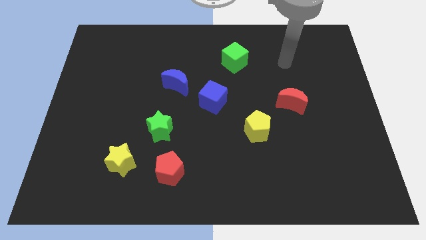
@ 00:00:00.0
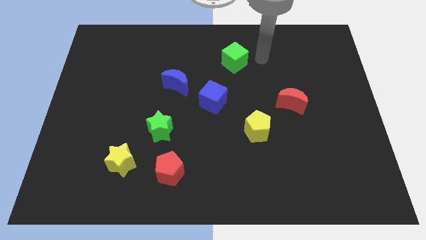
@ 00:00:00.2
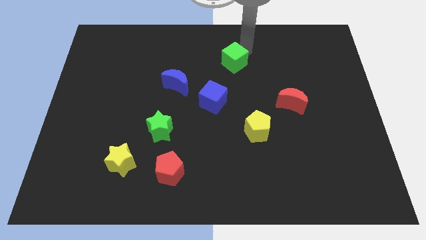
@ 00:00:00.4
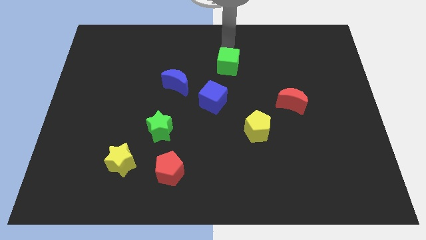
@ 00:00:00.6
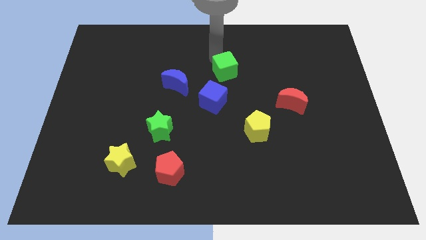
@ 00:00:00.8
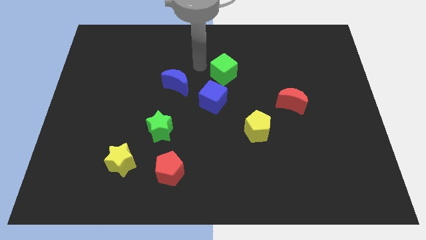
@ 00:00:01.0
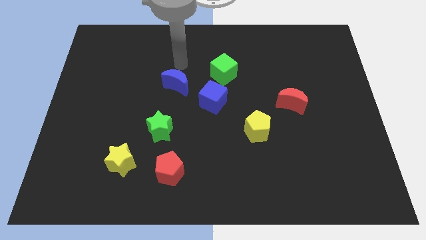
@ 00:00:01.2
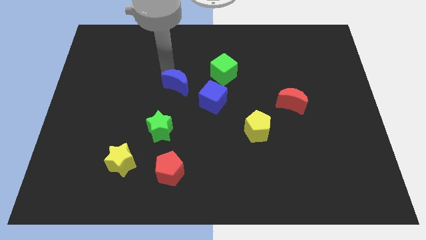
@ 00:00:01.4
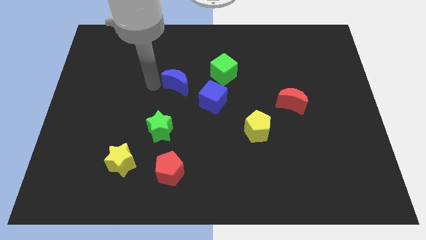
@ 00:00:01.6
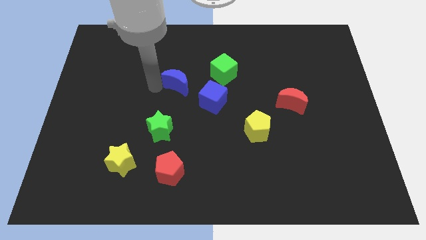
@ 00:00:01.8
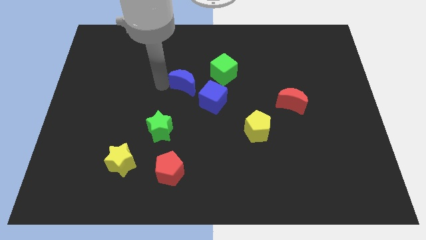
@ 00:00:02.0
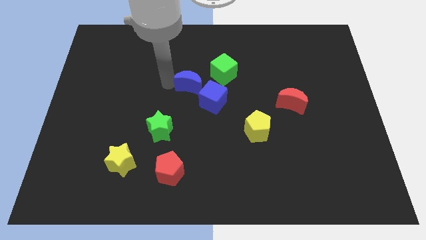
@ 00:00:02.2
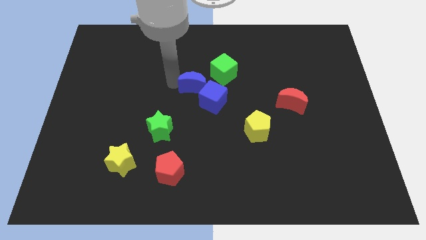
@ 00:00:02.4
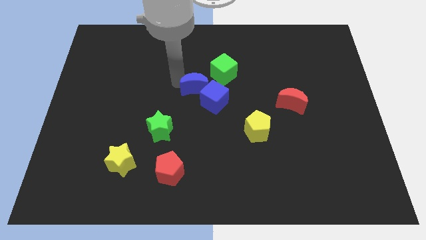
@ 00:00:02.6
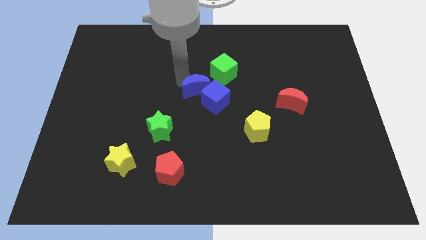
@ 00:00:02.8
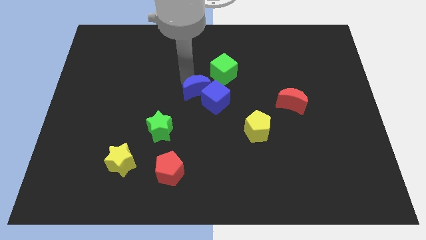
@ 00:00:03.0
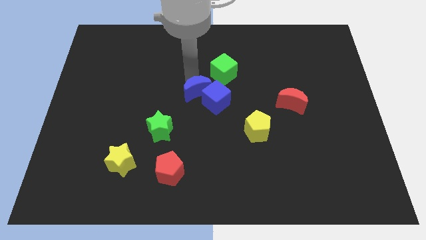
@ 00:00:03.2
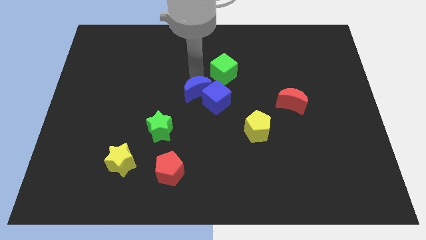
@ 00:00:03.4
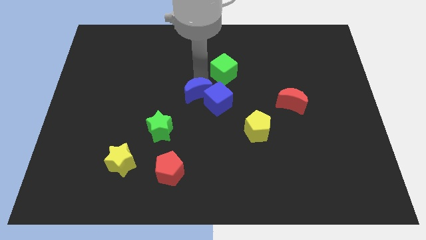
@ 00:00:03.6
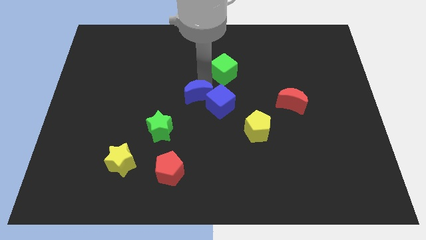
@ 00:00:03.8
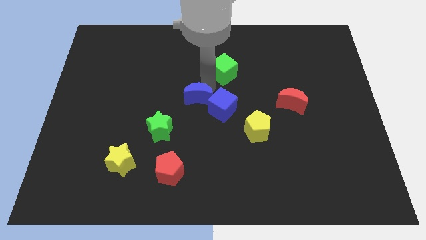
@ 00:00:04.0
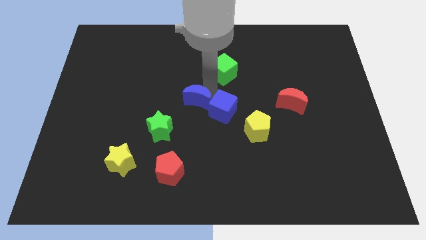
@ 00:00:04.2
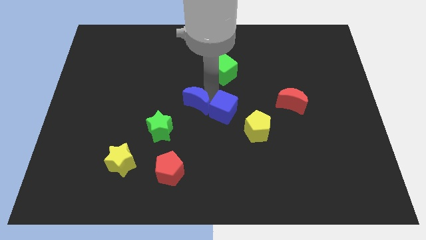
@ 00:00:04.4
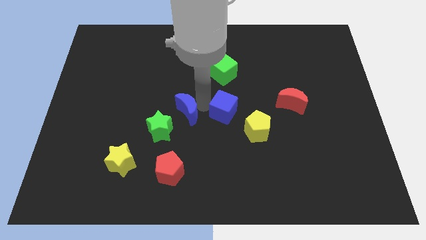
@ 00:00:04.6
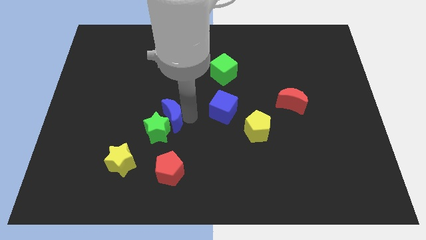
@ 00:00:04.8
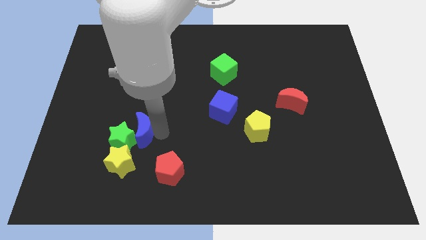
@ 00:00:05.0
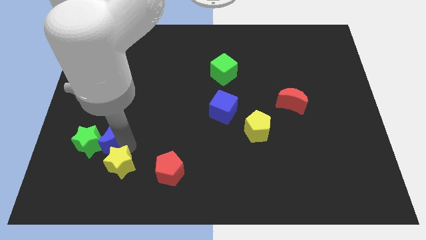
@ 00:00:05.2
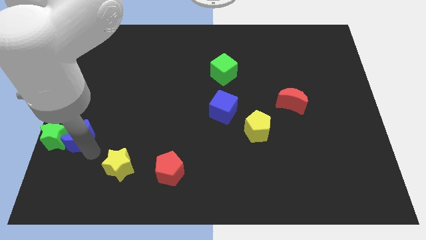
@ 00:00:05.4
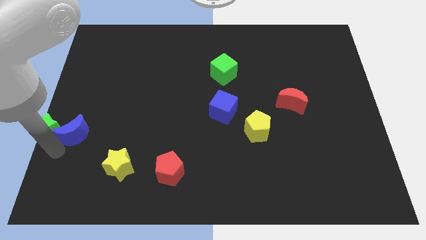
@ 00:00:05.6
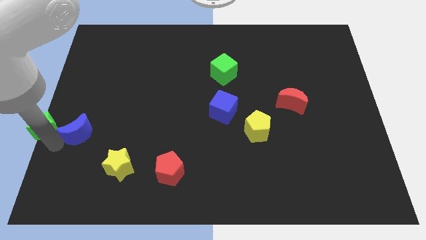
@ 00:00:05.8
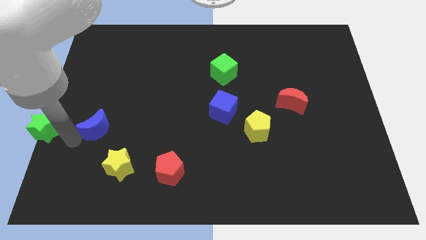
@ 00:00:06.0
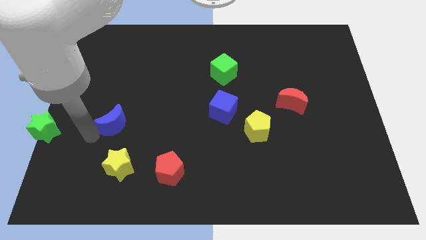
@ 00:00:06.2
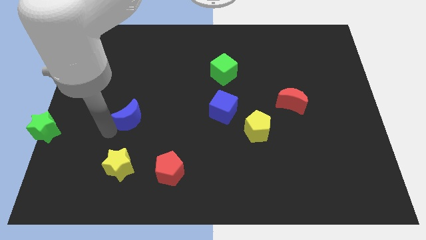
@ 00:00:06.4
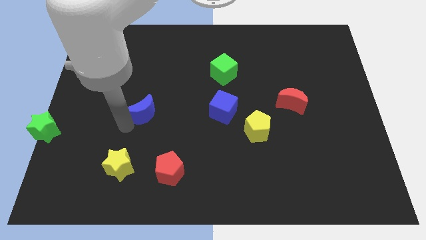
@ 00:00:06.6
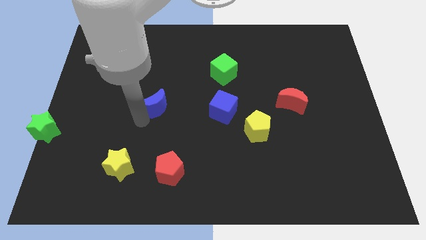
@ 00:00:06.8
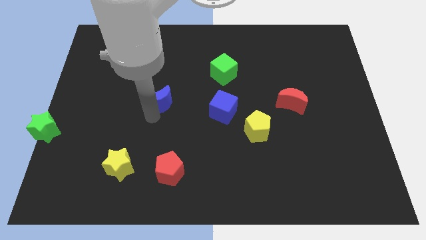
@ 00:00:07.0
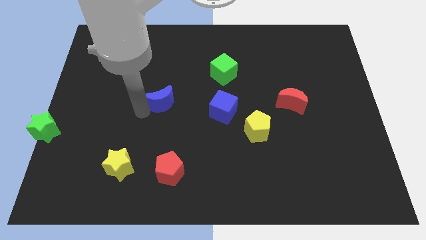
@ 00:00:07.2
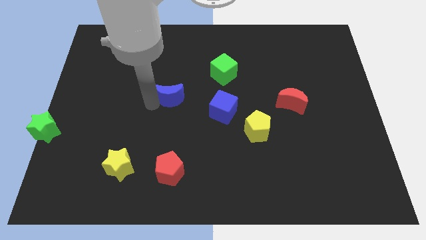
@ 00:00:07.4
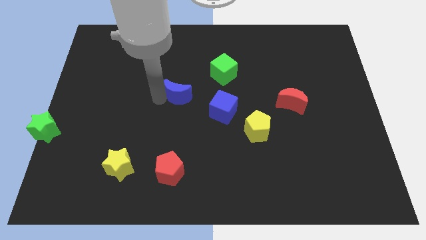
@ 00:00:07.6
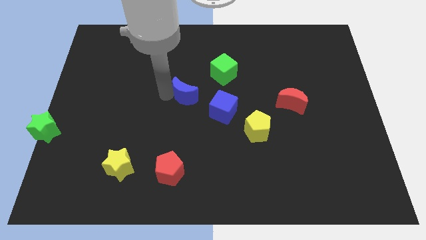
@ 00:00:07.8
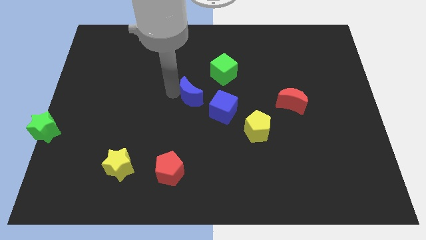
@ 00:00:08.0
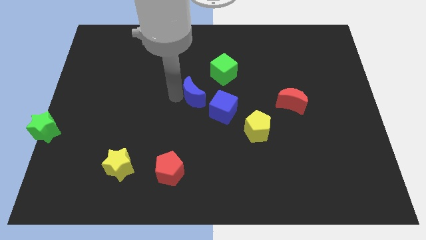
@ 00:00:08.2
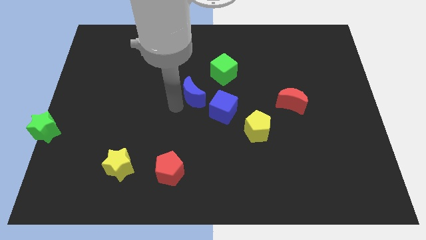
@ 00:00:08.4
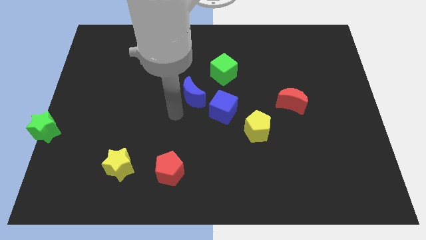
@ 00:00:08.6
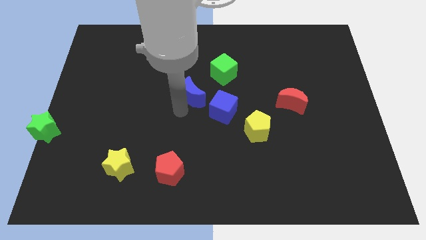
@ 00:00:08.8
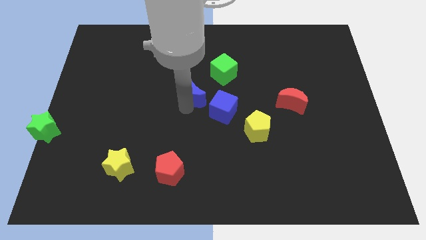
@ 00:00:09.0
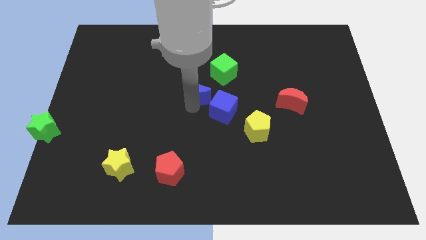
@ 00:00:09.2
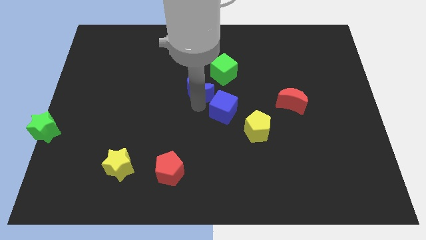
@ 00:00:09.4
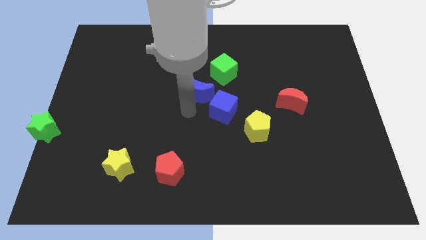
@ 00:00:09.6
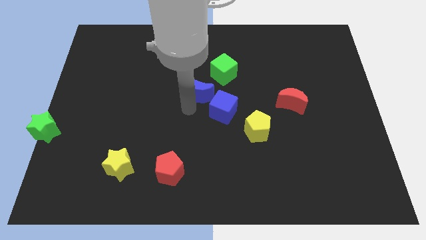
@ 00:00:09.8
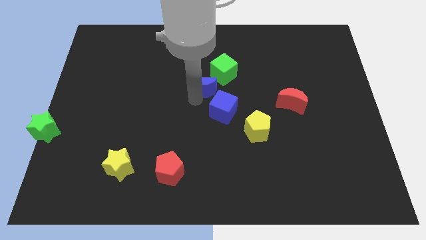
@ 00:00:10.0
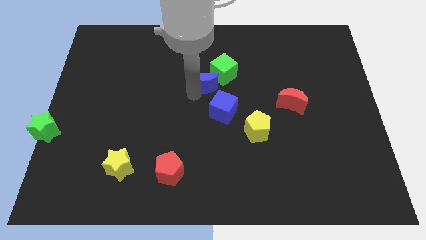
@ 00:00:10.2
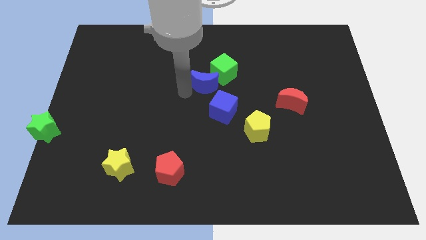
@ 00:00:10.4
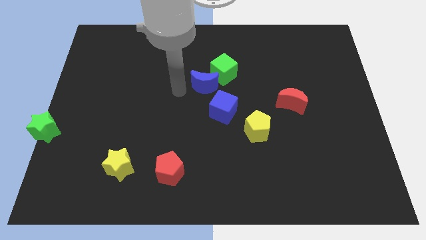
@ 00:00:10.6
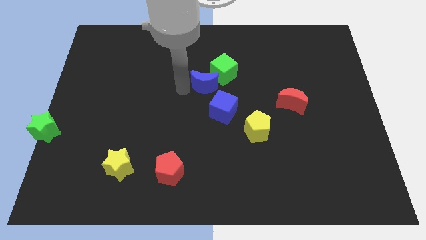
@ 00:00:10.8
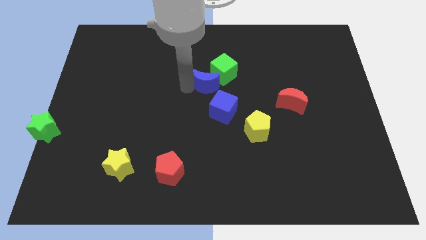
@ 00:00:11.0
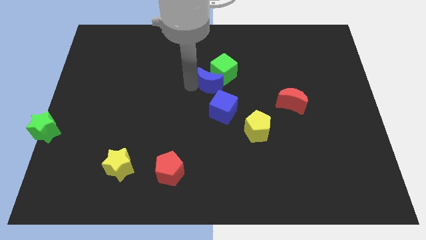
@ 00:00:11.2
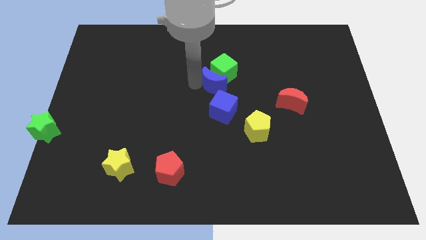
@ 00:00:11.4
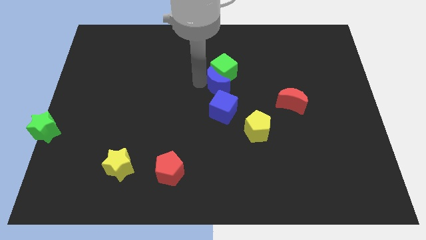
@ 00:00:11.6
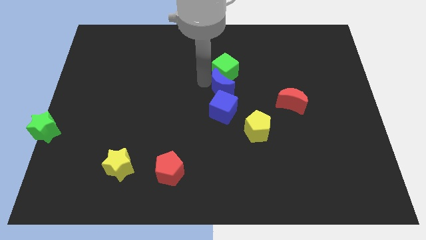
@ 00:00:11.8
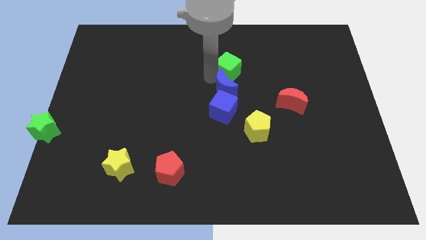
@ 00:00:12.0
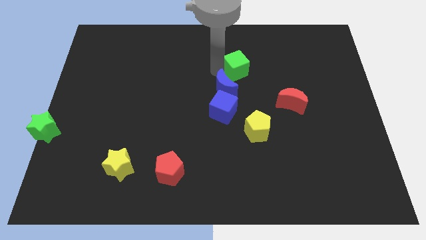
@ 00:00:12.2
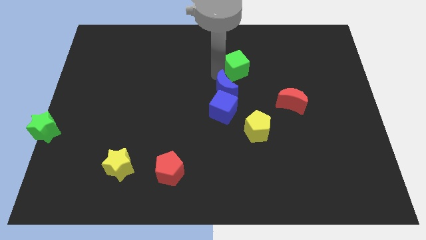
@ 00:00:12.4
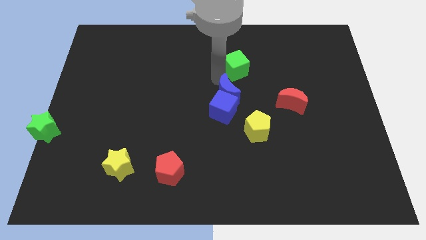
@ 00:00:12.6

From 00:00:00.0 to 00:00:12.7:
push the blue moon to the top left of the yellow pentagon
